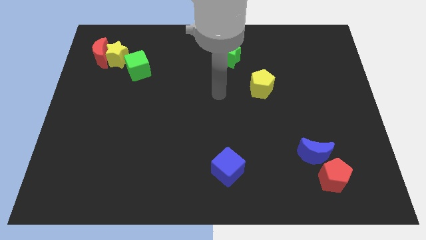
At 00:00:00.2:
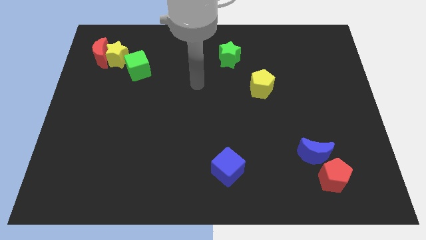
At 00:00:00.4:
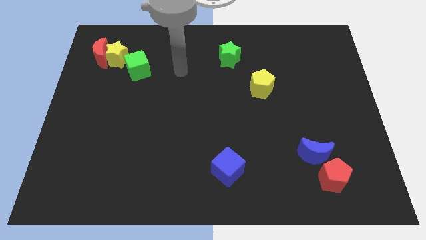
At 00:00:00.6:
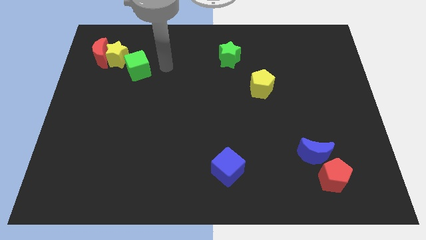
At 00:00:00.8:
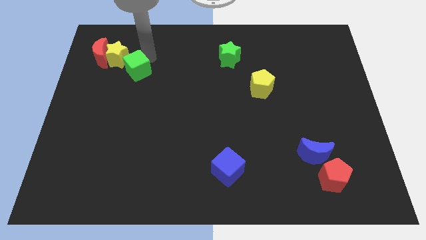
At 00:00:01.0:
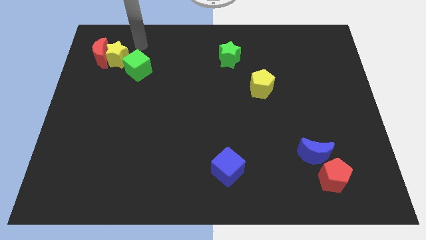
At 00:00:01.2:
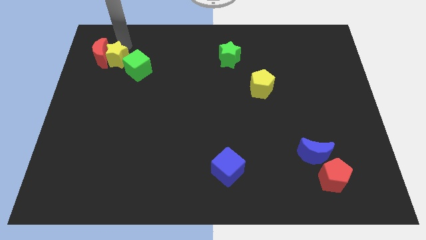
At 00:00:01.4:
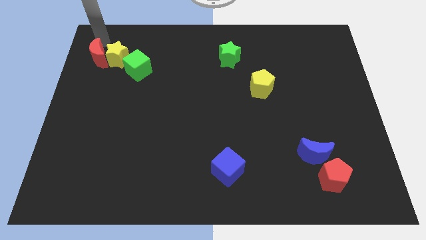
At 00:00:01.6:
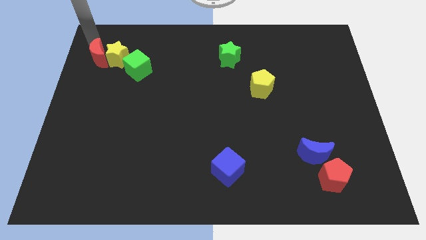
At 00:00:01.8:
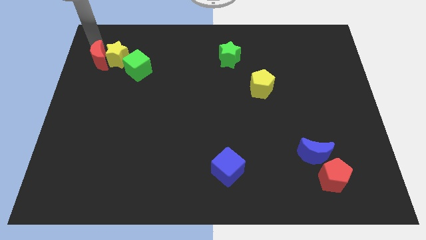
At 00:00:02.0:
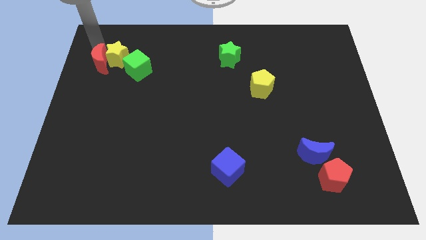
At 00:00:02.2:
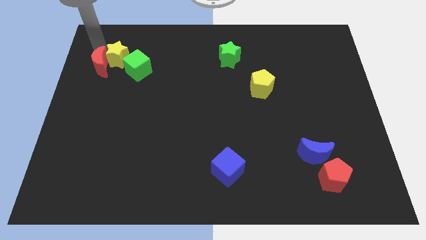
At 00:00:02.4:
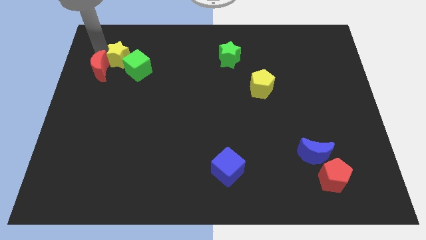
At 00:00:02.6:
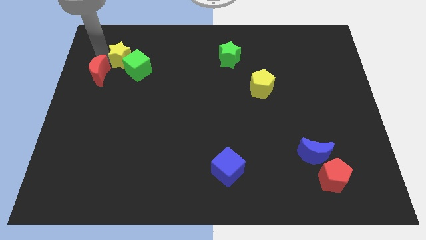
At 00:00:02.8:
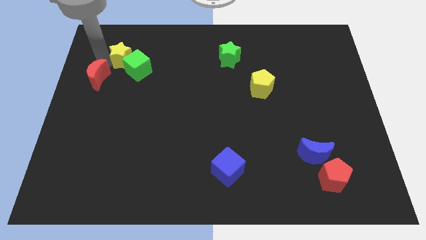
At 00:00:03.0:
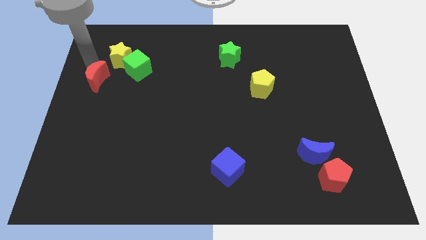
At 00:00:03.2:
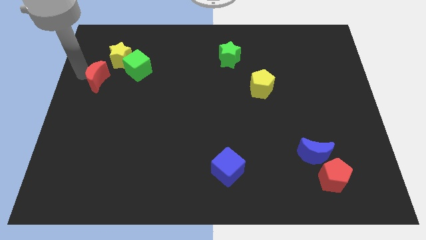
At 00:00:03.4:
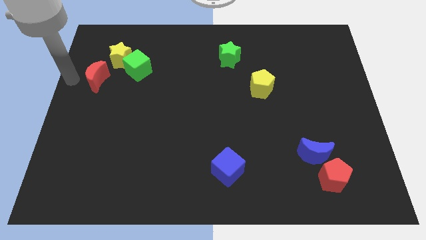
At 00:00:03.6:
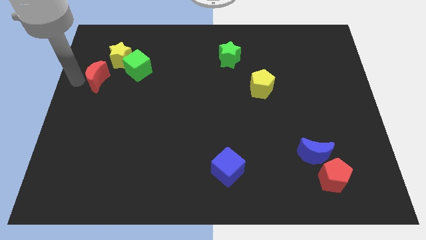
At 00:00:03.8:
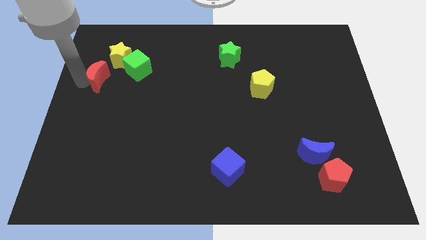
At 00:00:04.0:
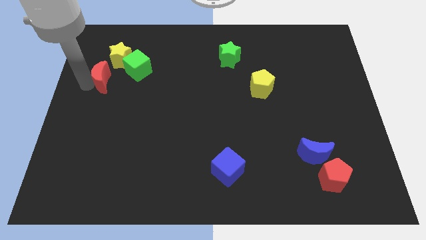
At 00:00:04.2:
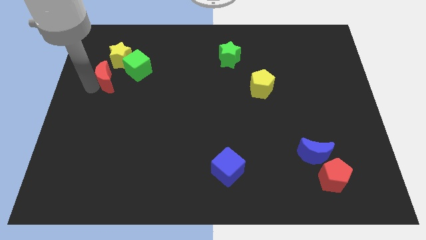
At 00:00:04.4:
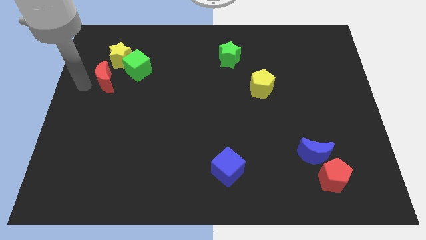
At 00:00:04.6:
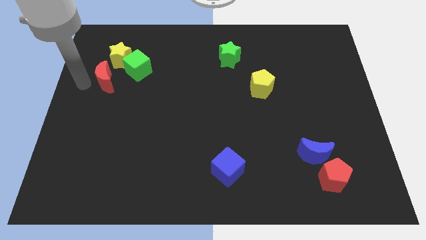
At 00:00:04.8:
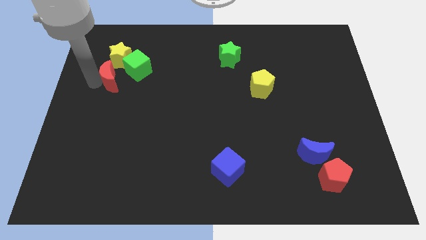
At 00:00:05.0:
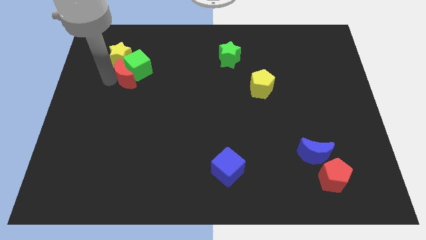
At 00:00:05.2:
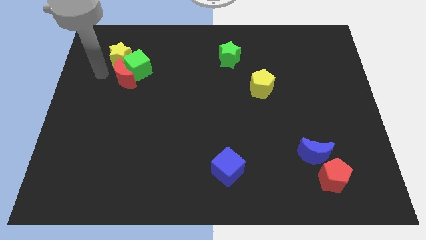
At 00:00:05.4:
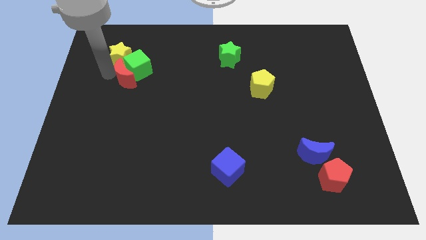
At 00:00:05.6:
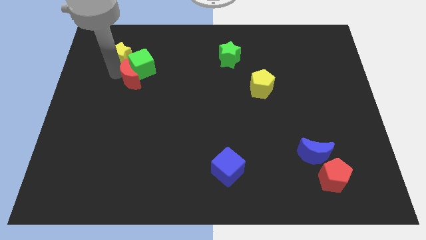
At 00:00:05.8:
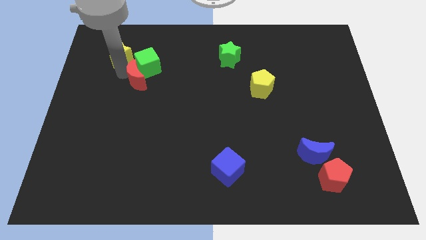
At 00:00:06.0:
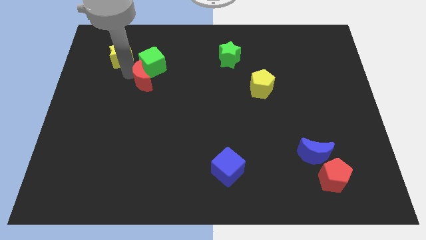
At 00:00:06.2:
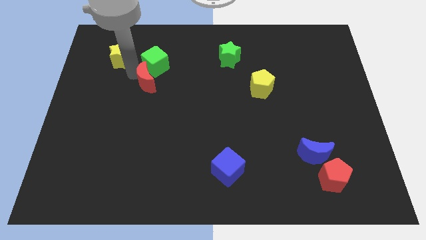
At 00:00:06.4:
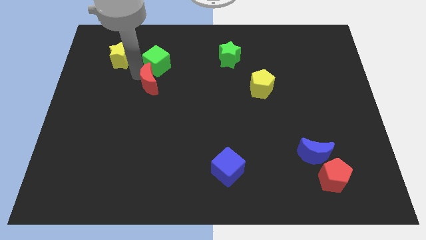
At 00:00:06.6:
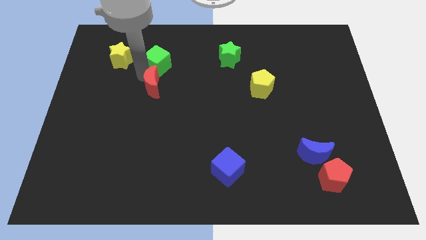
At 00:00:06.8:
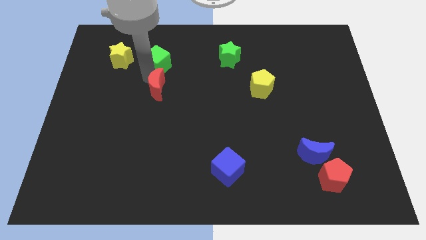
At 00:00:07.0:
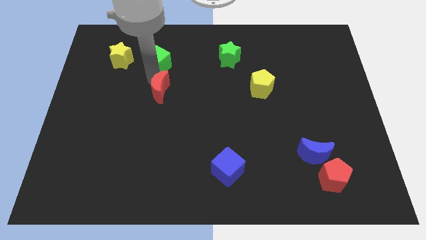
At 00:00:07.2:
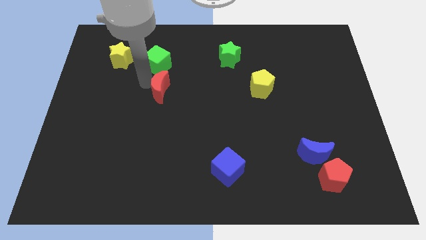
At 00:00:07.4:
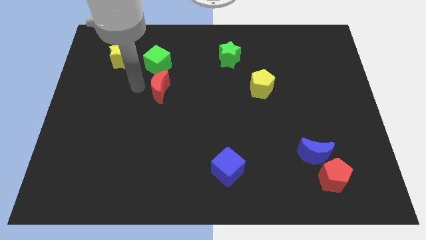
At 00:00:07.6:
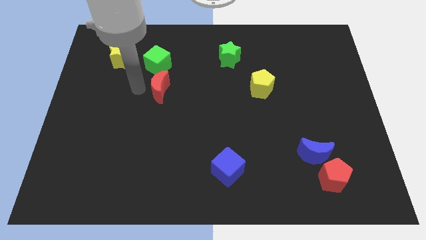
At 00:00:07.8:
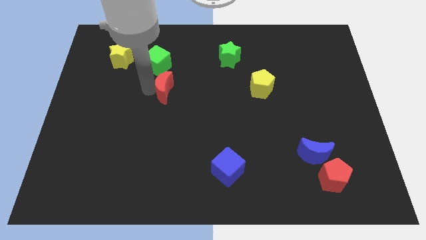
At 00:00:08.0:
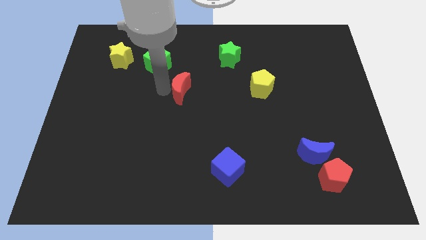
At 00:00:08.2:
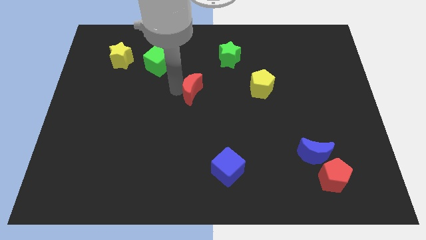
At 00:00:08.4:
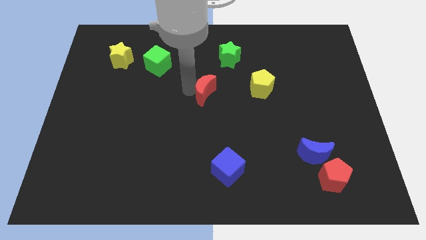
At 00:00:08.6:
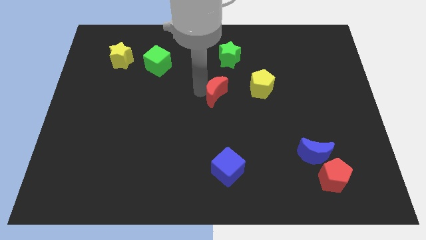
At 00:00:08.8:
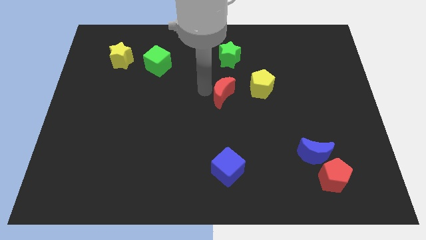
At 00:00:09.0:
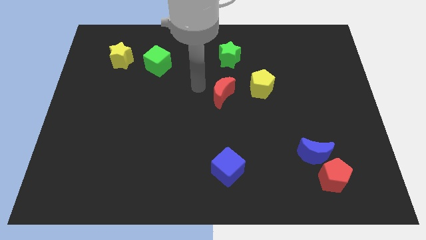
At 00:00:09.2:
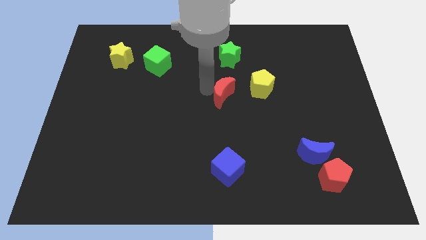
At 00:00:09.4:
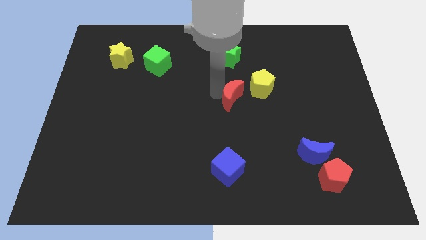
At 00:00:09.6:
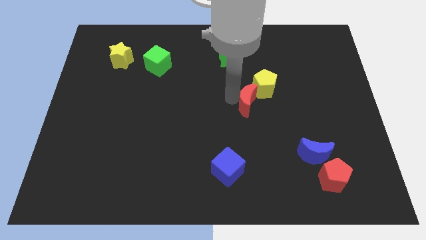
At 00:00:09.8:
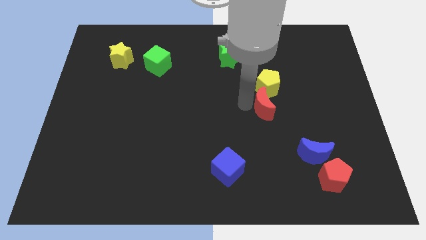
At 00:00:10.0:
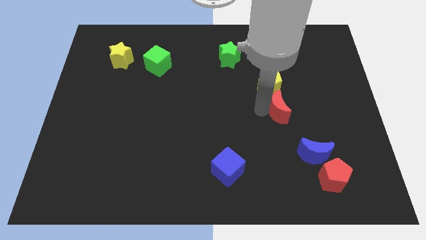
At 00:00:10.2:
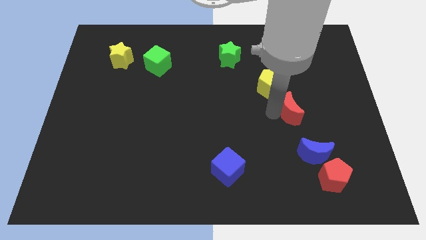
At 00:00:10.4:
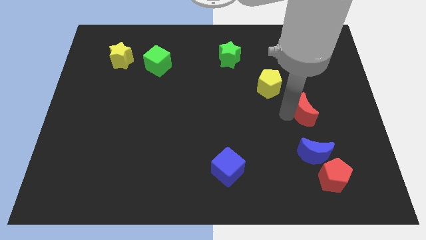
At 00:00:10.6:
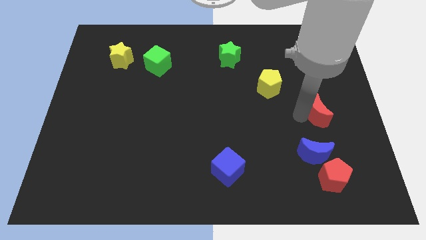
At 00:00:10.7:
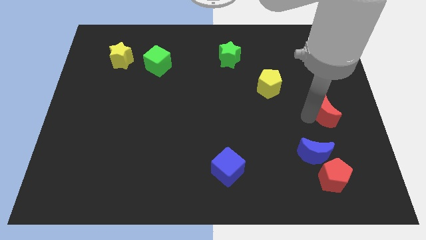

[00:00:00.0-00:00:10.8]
move the red moon to the center right

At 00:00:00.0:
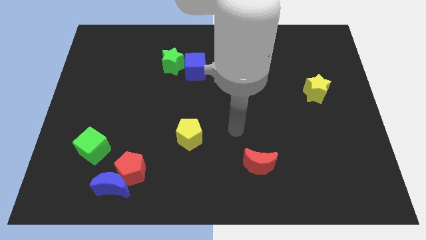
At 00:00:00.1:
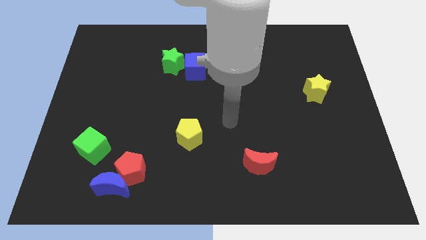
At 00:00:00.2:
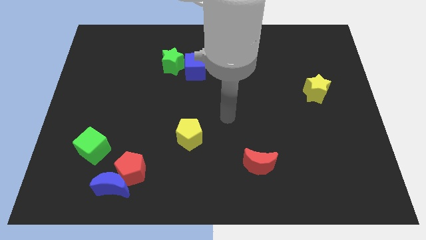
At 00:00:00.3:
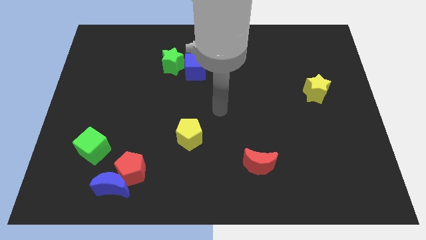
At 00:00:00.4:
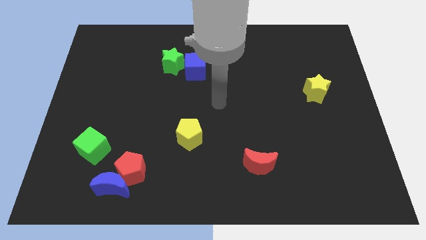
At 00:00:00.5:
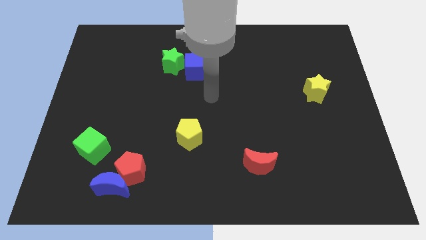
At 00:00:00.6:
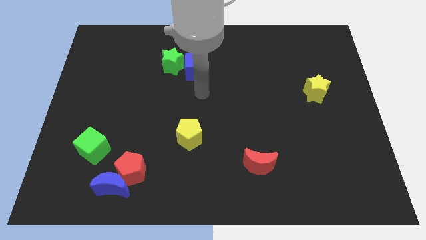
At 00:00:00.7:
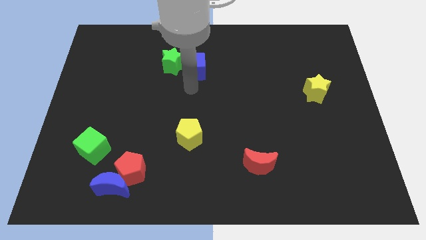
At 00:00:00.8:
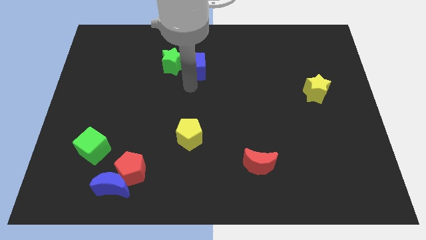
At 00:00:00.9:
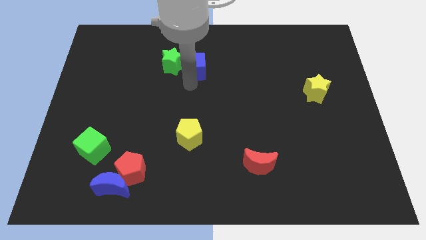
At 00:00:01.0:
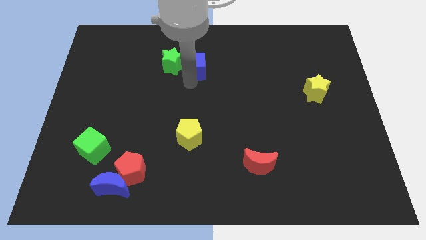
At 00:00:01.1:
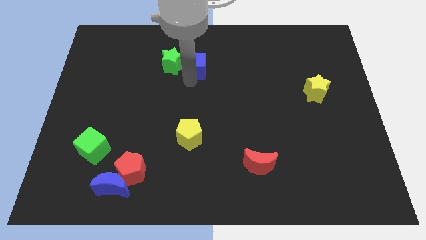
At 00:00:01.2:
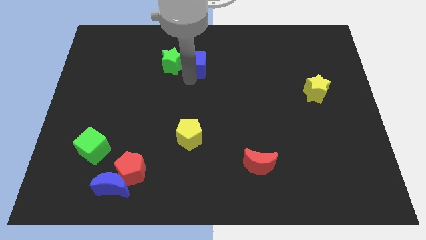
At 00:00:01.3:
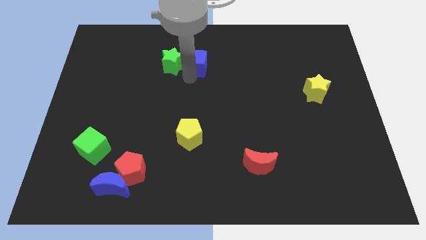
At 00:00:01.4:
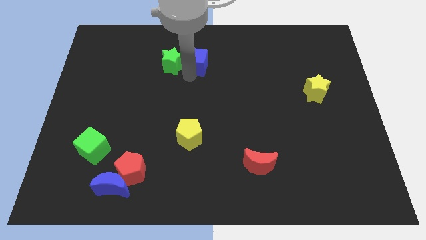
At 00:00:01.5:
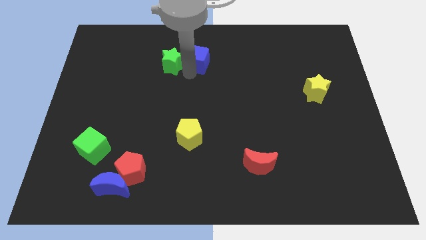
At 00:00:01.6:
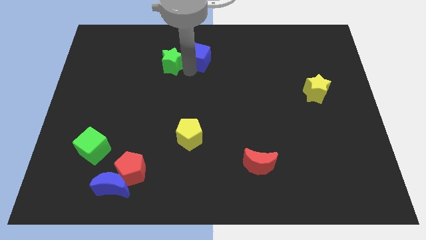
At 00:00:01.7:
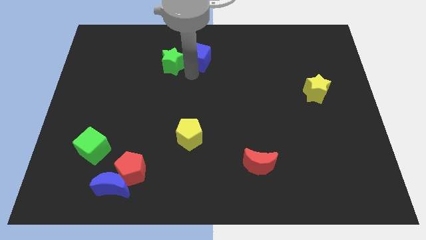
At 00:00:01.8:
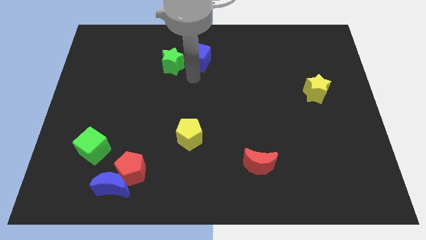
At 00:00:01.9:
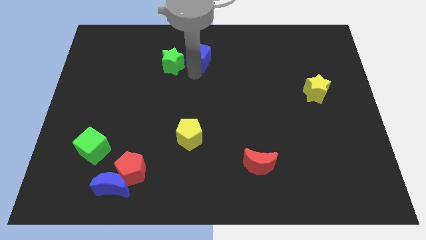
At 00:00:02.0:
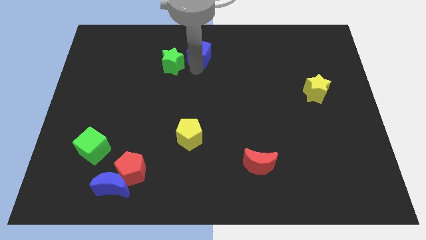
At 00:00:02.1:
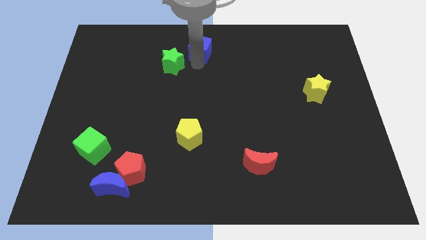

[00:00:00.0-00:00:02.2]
slide the blue cube to the top side
